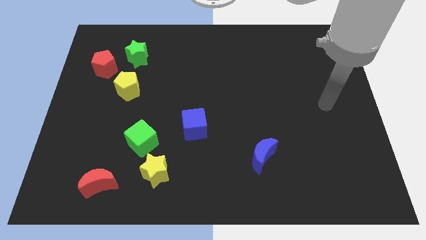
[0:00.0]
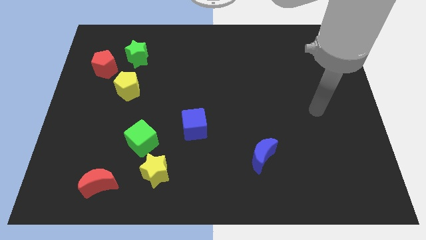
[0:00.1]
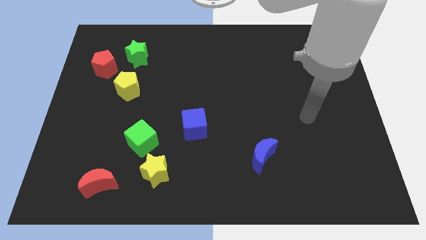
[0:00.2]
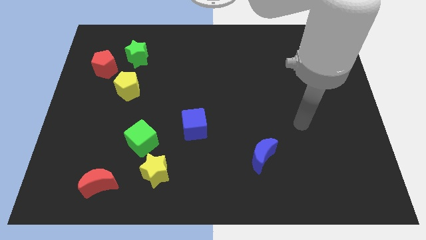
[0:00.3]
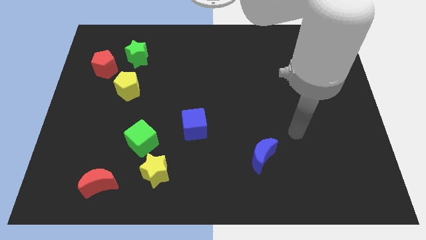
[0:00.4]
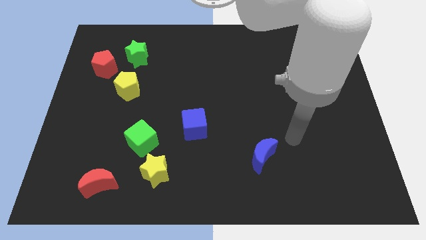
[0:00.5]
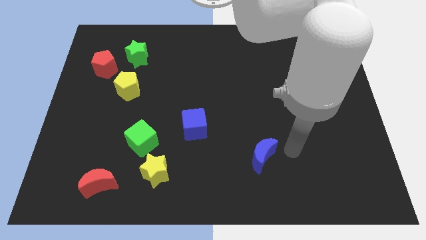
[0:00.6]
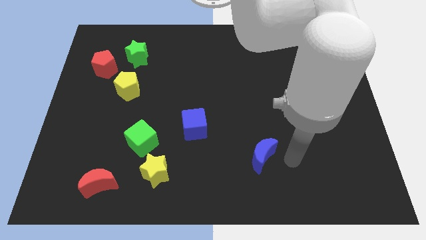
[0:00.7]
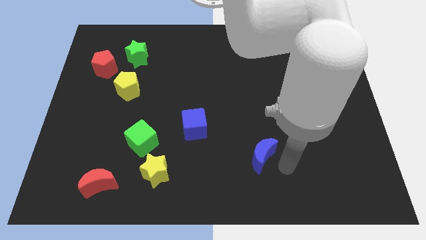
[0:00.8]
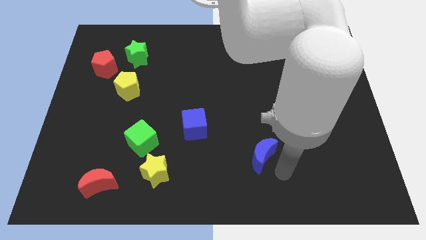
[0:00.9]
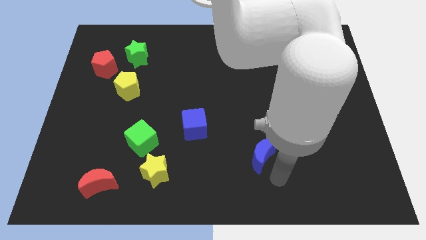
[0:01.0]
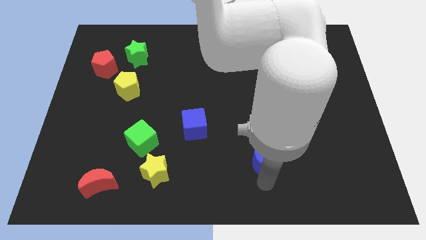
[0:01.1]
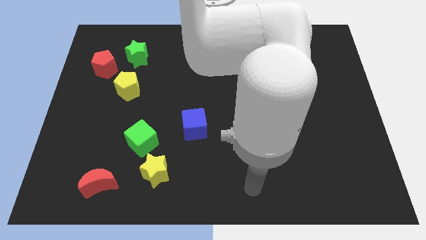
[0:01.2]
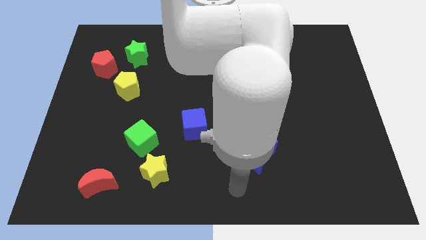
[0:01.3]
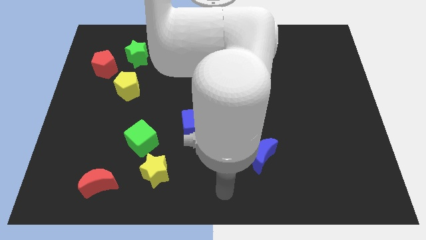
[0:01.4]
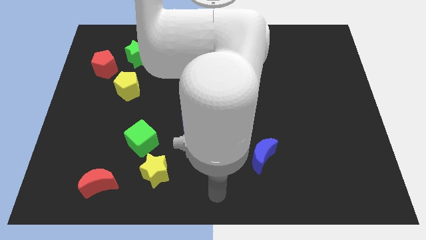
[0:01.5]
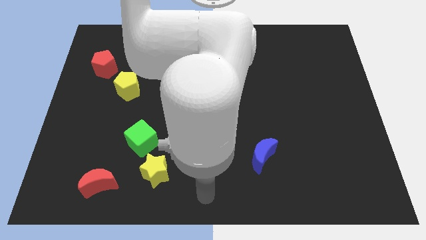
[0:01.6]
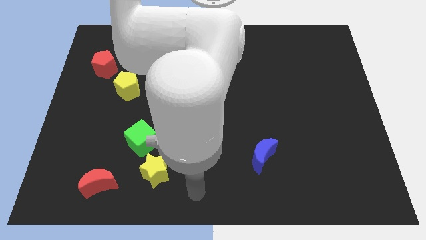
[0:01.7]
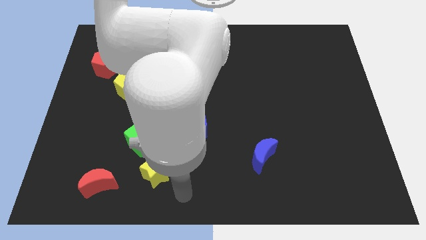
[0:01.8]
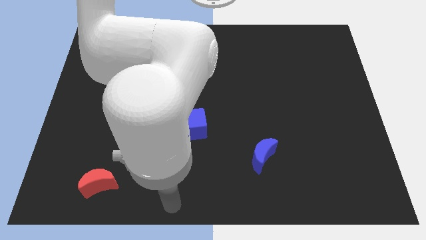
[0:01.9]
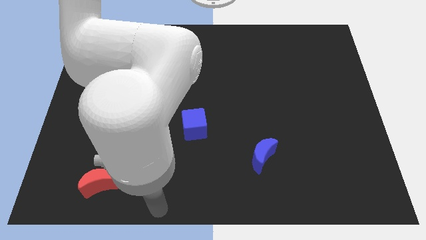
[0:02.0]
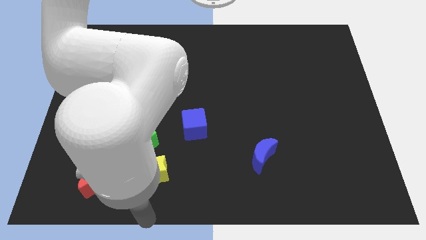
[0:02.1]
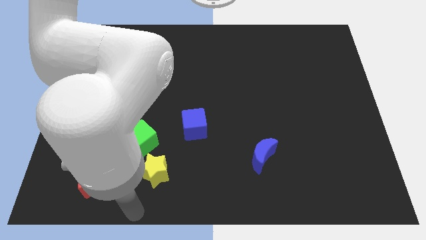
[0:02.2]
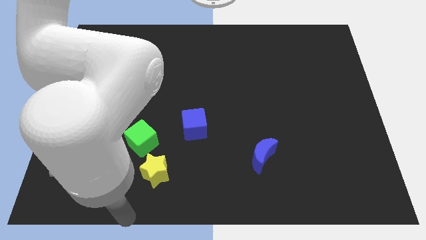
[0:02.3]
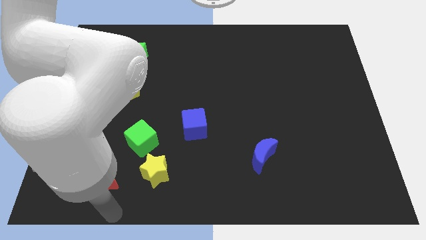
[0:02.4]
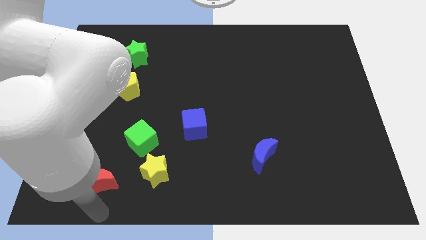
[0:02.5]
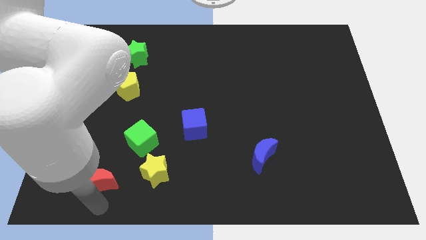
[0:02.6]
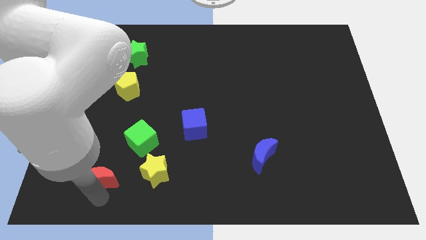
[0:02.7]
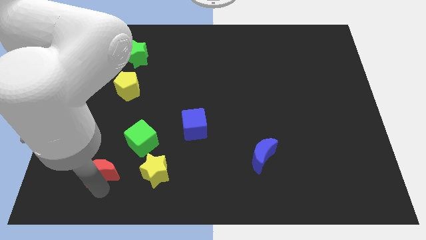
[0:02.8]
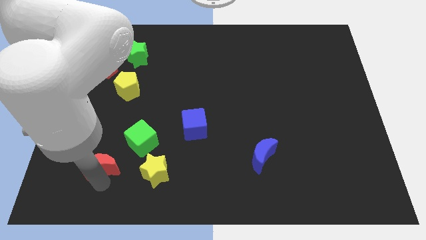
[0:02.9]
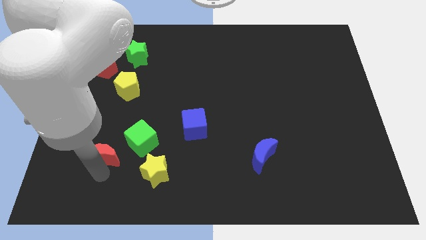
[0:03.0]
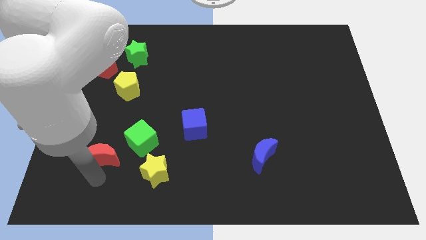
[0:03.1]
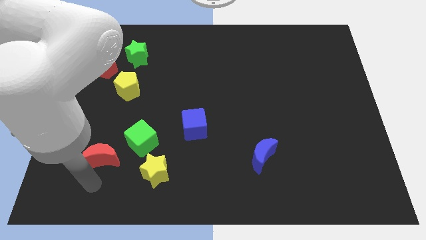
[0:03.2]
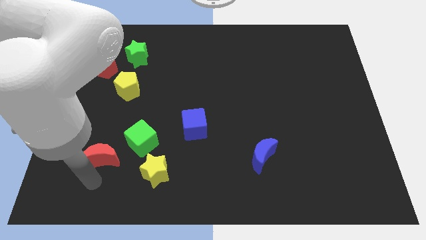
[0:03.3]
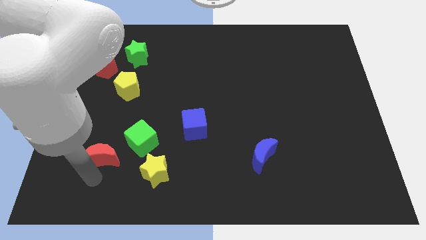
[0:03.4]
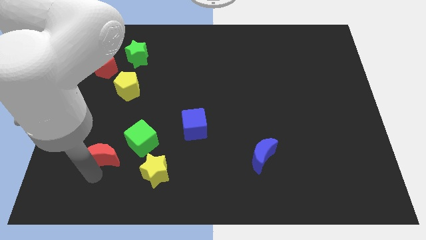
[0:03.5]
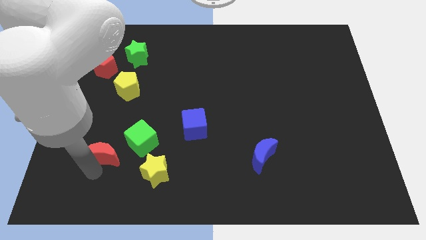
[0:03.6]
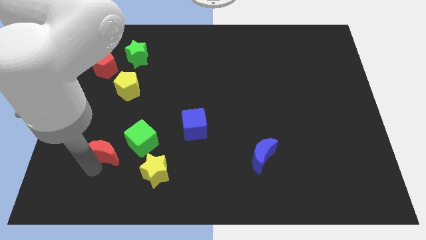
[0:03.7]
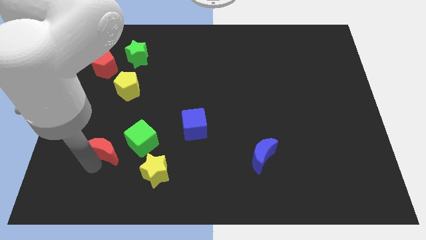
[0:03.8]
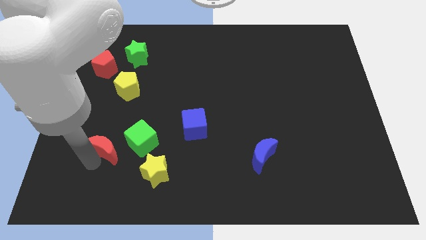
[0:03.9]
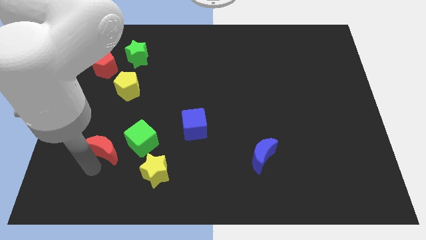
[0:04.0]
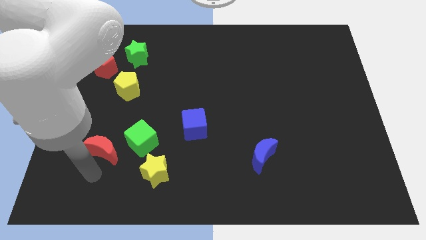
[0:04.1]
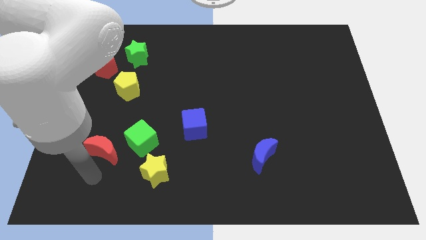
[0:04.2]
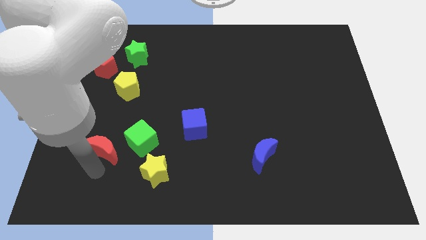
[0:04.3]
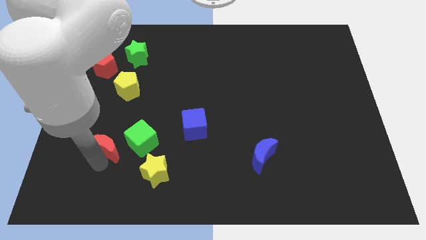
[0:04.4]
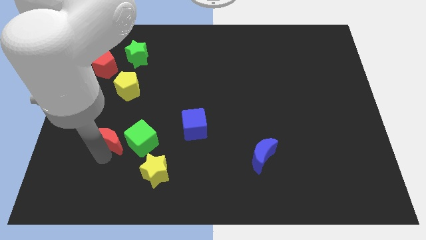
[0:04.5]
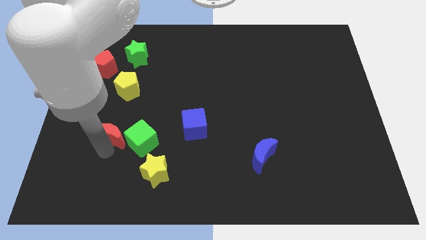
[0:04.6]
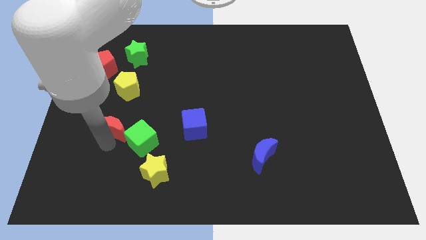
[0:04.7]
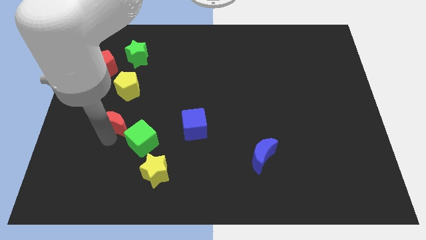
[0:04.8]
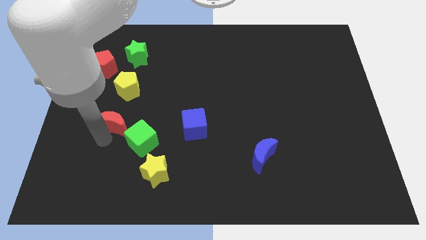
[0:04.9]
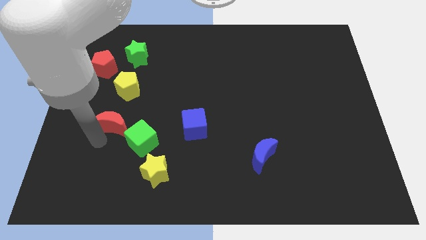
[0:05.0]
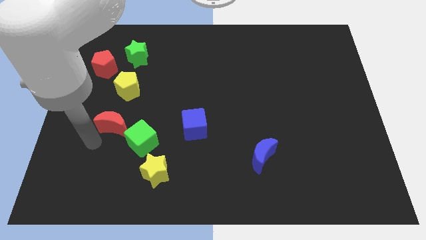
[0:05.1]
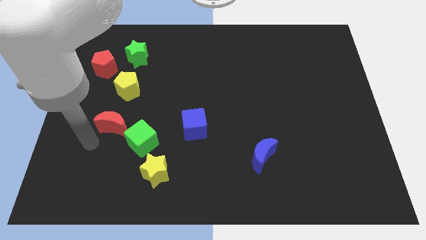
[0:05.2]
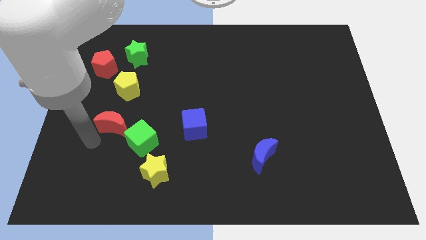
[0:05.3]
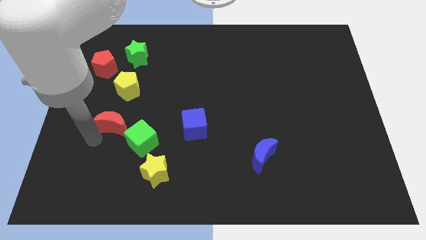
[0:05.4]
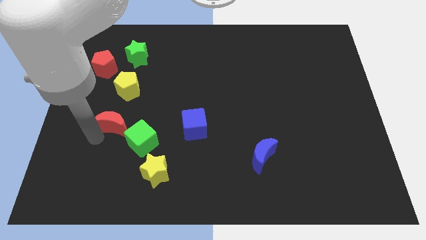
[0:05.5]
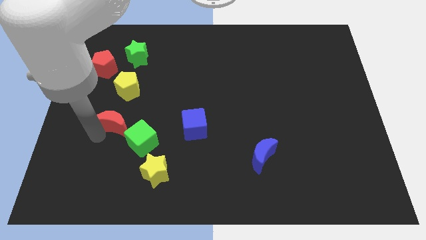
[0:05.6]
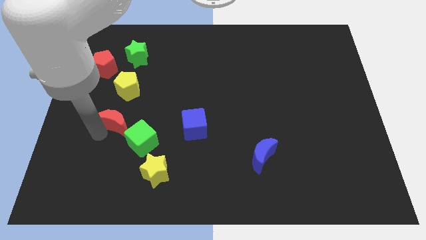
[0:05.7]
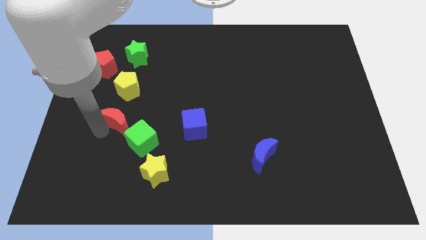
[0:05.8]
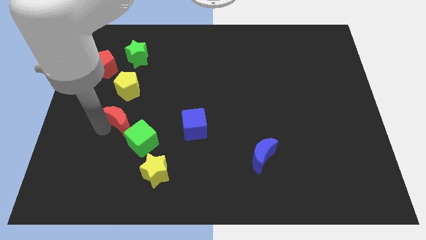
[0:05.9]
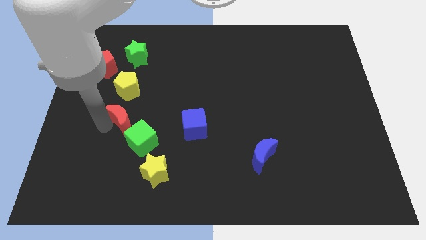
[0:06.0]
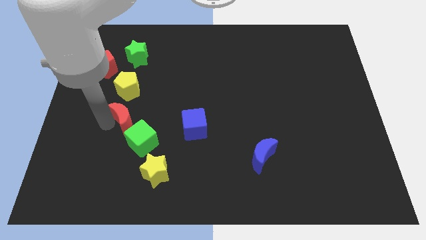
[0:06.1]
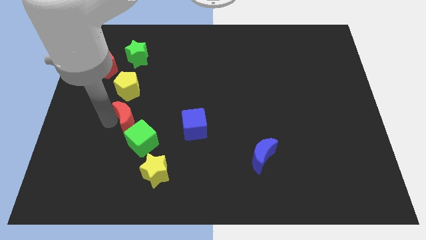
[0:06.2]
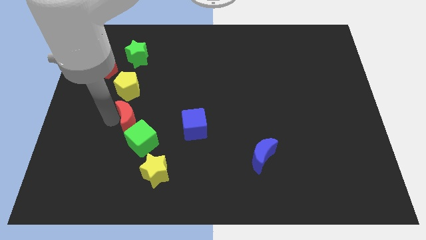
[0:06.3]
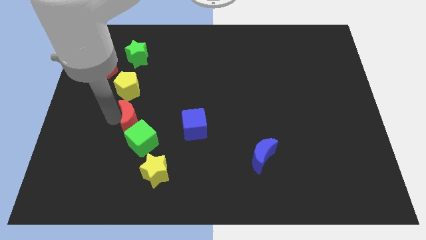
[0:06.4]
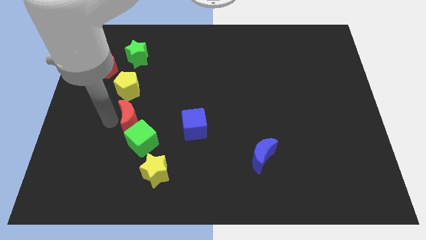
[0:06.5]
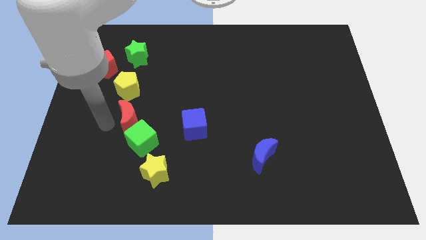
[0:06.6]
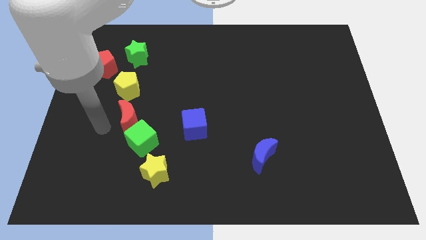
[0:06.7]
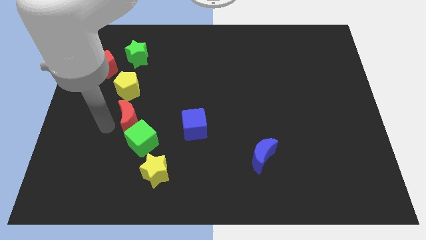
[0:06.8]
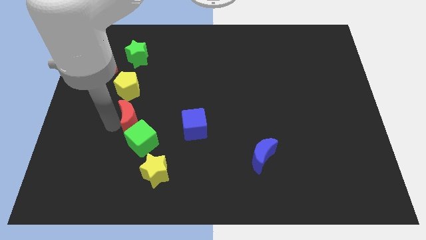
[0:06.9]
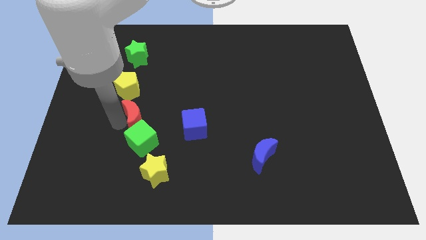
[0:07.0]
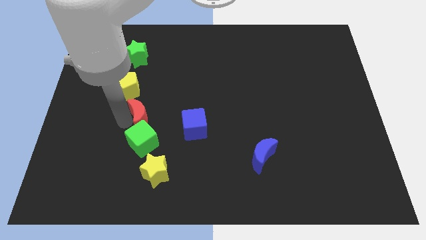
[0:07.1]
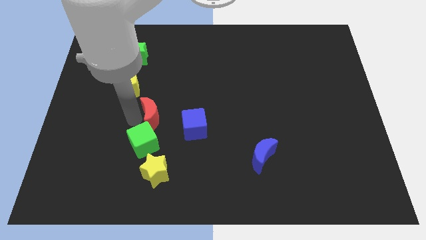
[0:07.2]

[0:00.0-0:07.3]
push the red moon to the top left side of the blue cube

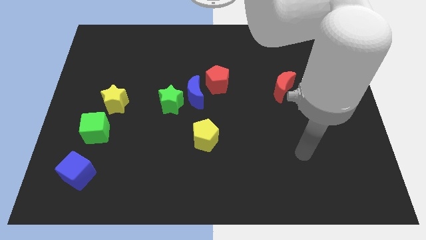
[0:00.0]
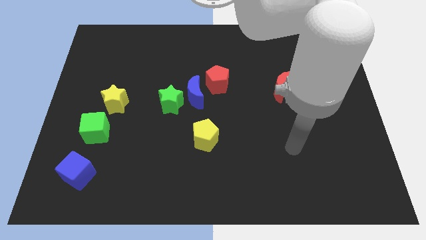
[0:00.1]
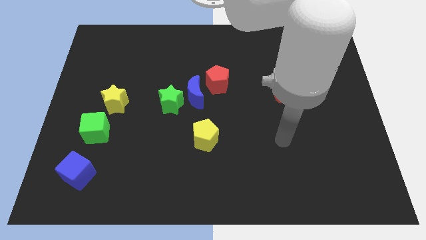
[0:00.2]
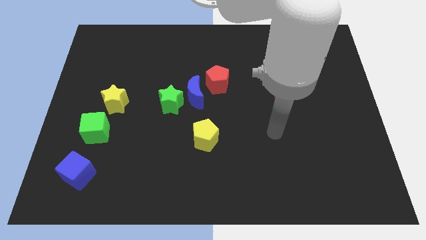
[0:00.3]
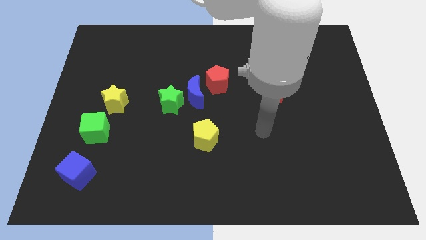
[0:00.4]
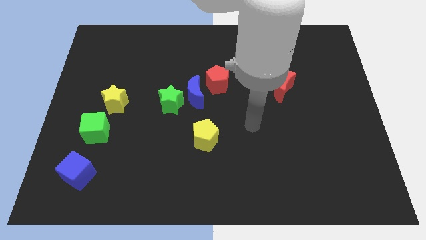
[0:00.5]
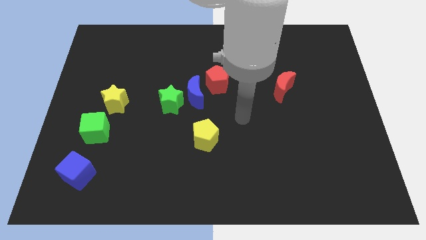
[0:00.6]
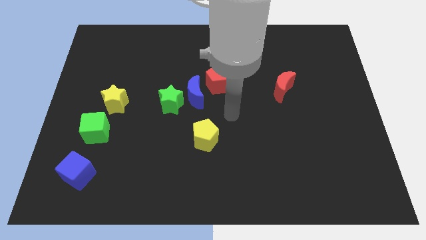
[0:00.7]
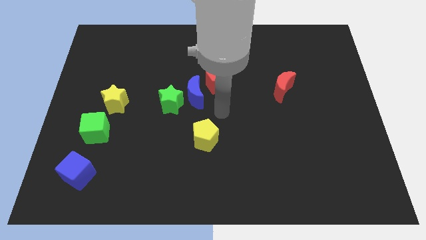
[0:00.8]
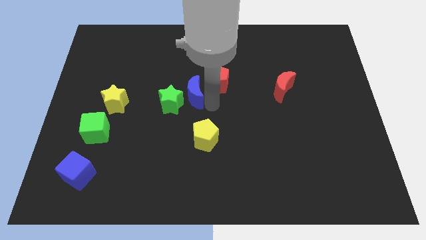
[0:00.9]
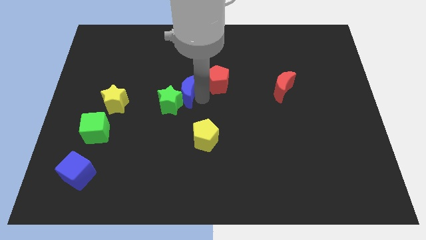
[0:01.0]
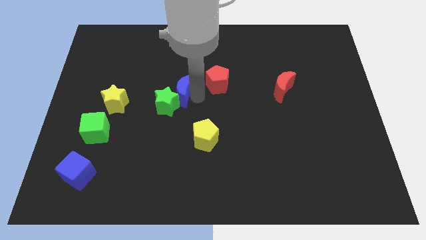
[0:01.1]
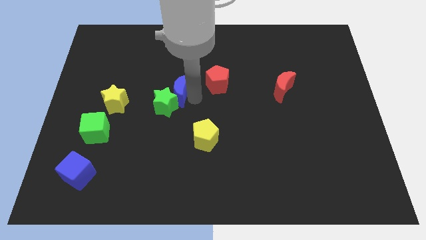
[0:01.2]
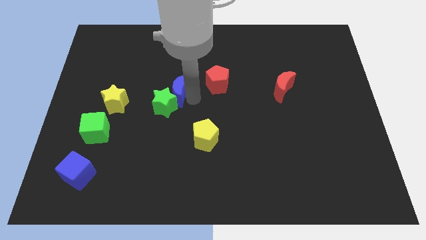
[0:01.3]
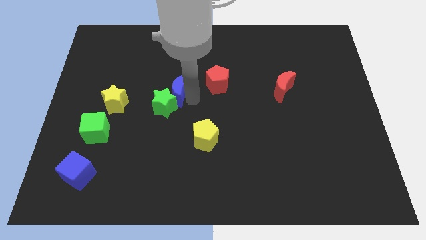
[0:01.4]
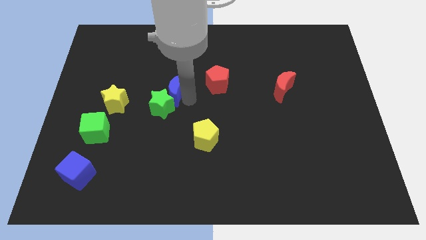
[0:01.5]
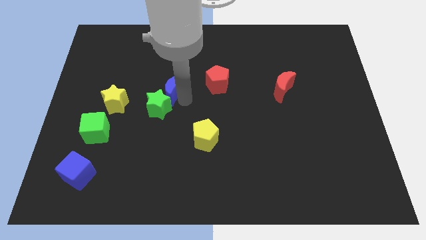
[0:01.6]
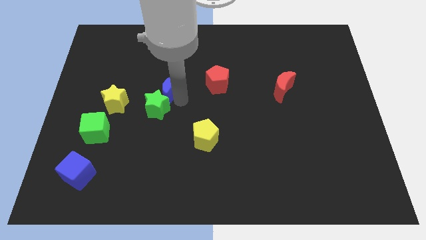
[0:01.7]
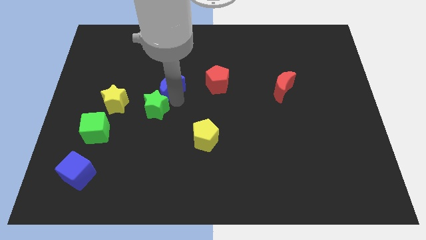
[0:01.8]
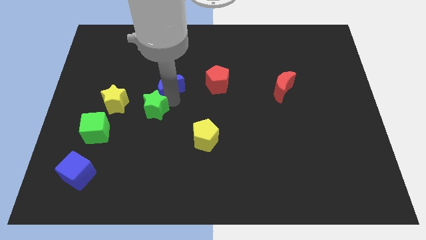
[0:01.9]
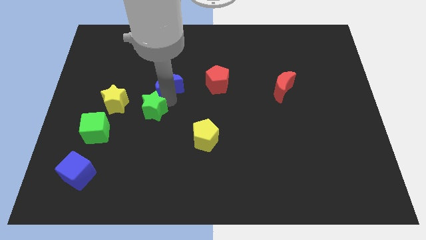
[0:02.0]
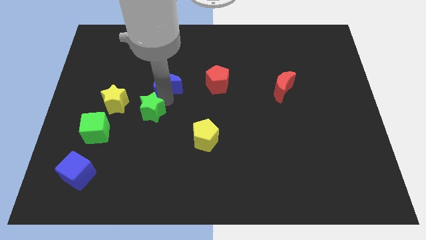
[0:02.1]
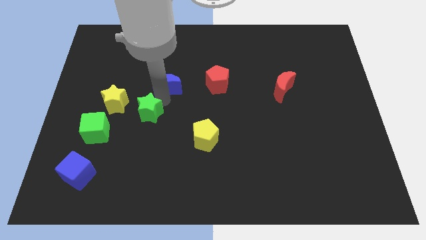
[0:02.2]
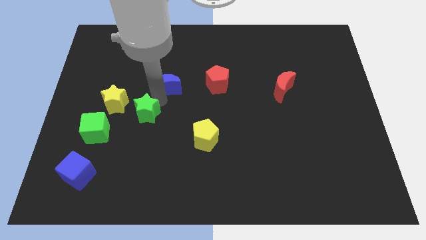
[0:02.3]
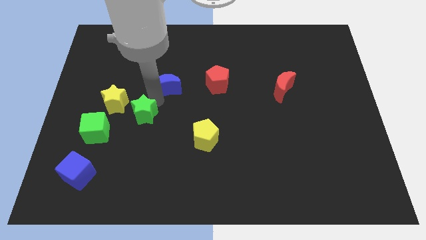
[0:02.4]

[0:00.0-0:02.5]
put the green star to the top right of the green cube
